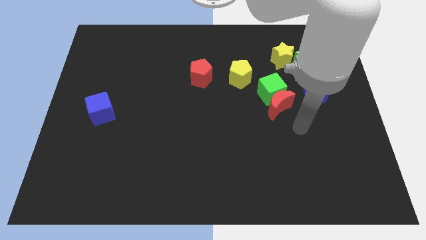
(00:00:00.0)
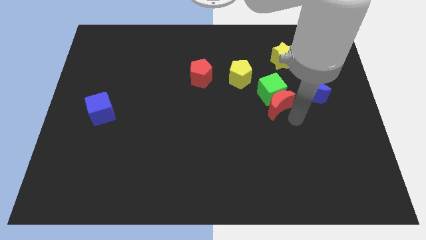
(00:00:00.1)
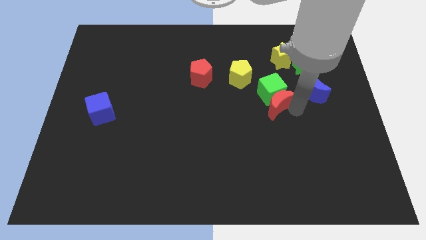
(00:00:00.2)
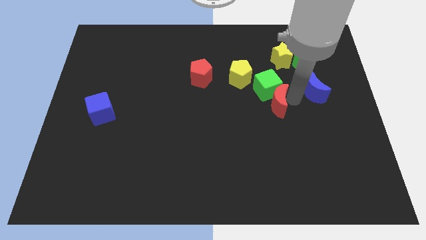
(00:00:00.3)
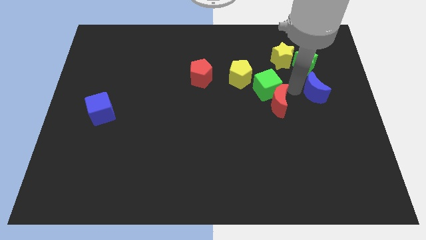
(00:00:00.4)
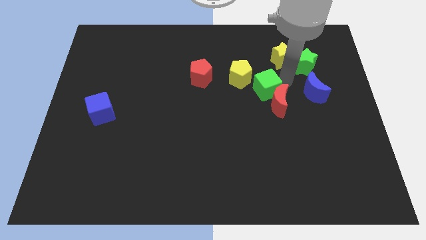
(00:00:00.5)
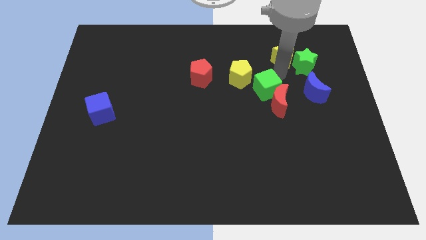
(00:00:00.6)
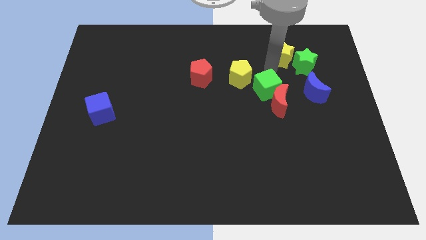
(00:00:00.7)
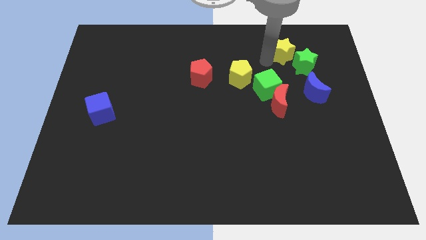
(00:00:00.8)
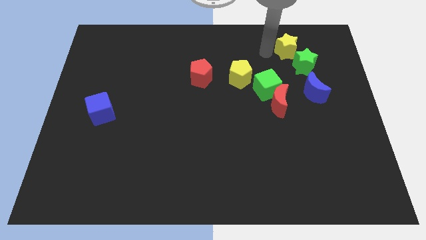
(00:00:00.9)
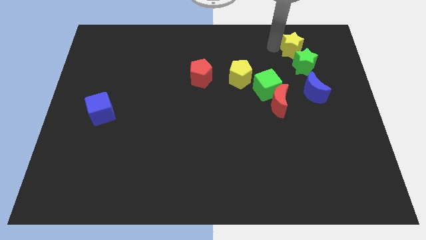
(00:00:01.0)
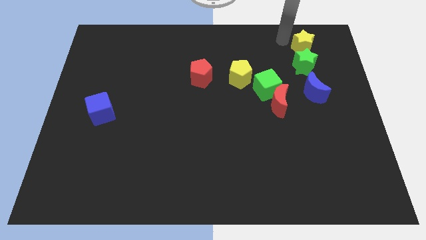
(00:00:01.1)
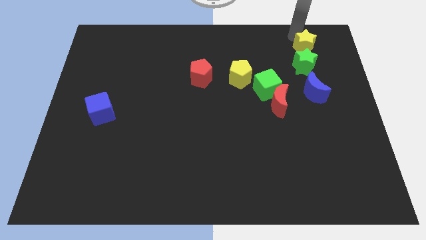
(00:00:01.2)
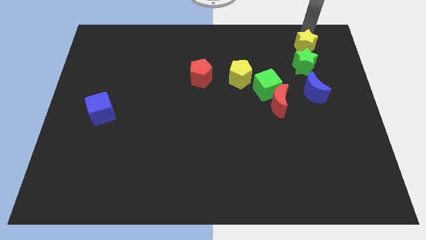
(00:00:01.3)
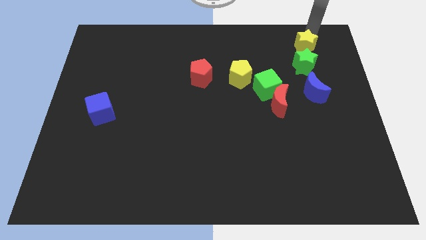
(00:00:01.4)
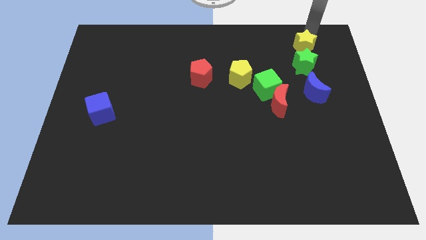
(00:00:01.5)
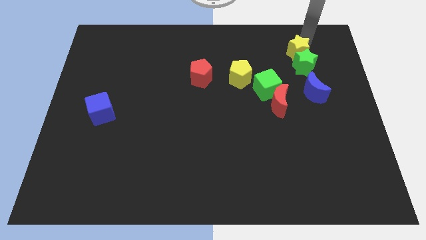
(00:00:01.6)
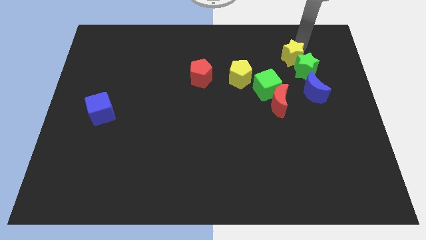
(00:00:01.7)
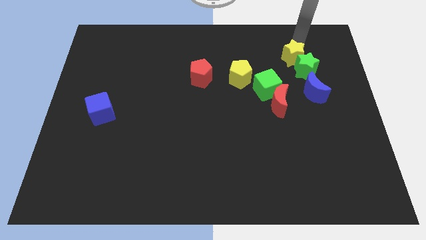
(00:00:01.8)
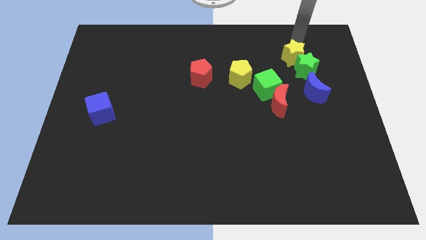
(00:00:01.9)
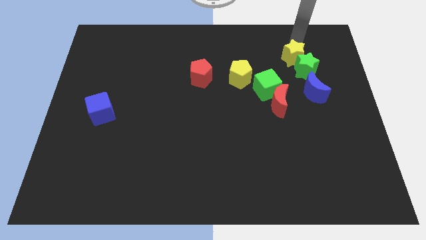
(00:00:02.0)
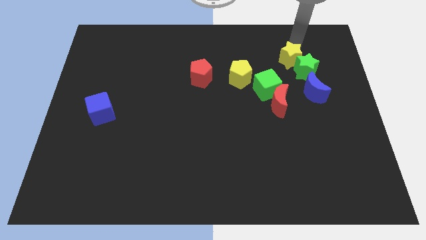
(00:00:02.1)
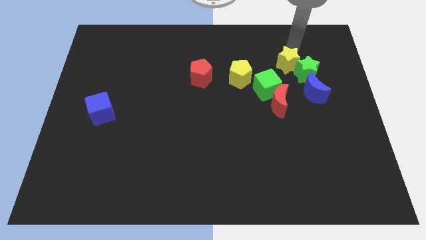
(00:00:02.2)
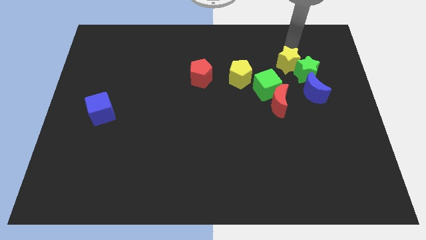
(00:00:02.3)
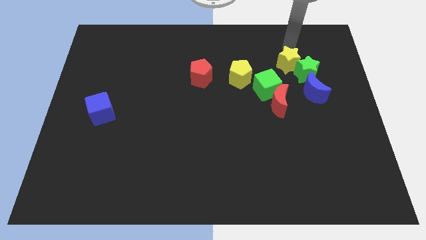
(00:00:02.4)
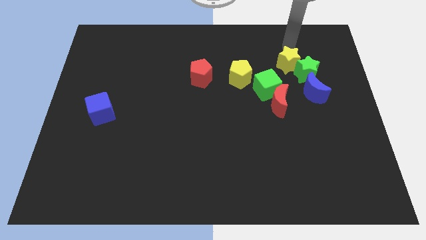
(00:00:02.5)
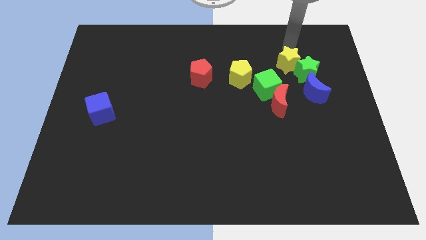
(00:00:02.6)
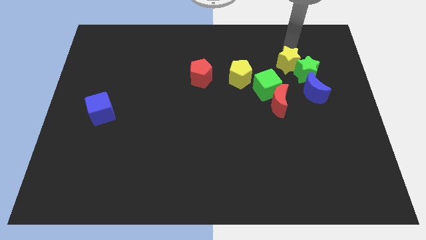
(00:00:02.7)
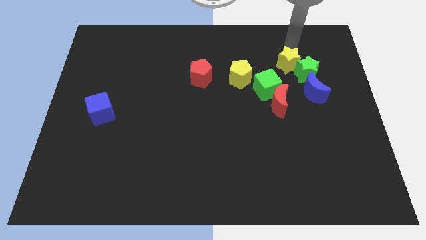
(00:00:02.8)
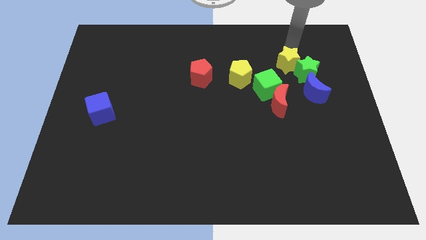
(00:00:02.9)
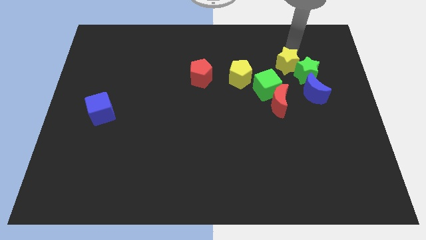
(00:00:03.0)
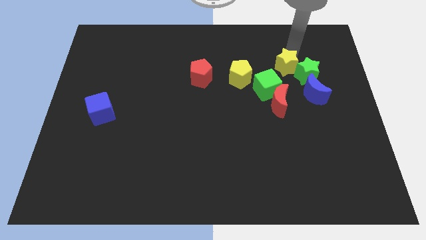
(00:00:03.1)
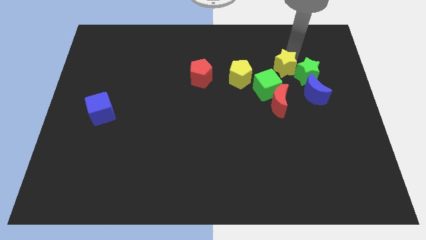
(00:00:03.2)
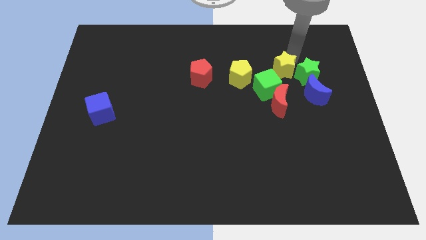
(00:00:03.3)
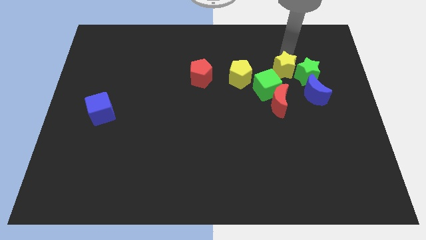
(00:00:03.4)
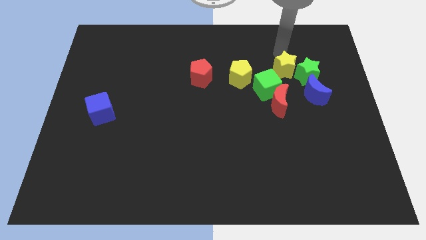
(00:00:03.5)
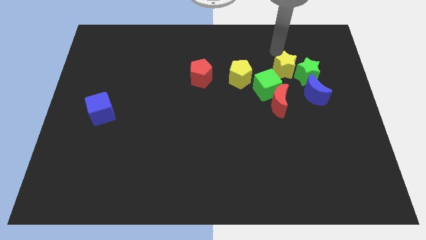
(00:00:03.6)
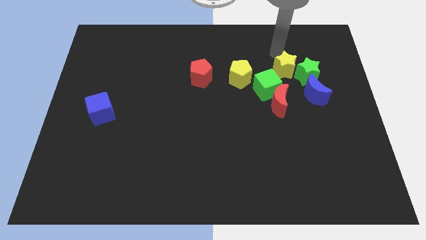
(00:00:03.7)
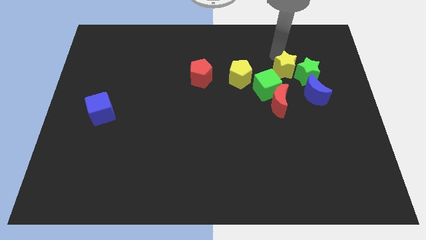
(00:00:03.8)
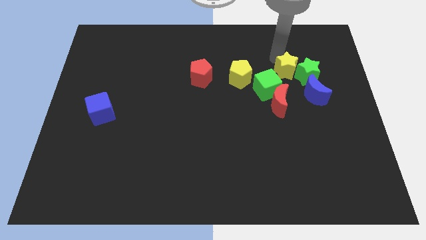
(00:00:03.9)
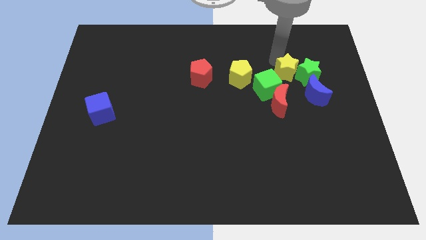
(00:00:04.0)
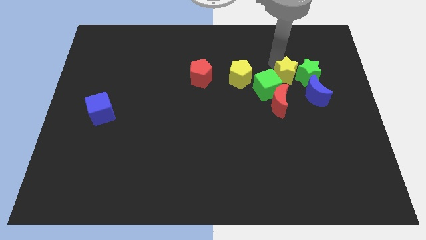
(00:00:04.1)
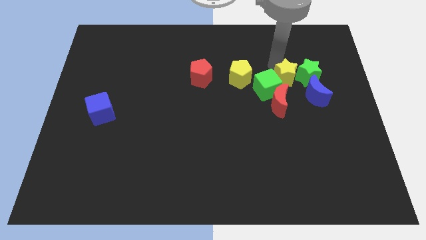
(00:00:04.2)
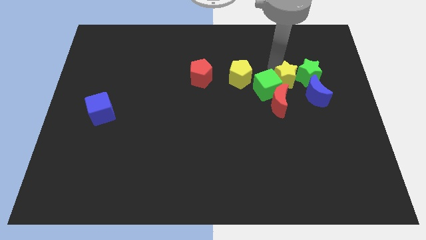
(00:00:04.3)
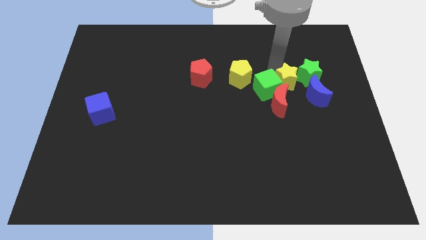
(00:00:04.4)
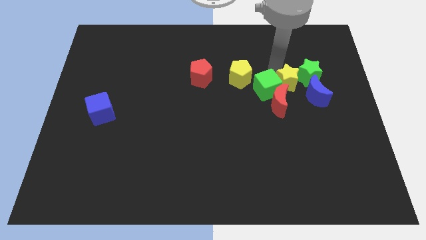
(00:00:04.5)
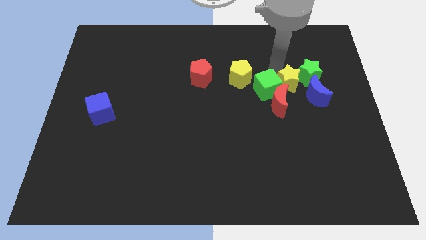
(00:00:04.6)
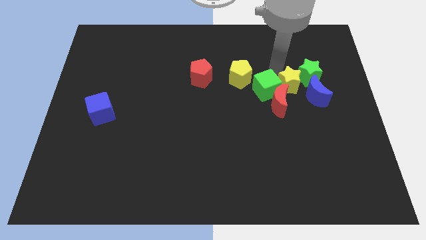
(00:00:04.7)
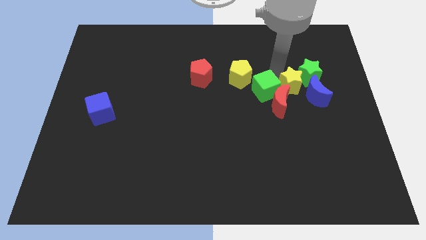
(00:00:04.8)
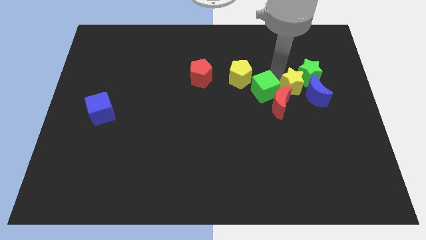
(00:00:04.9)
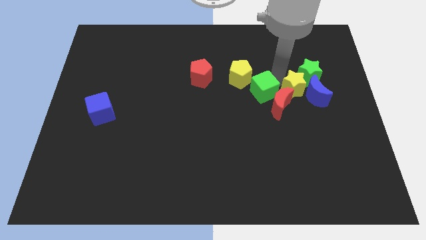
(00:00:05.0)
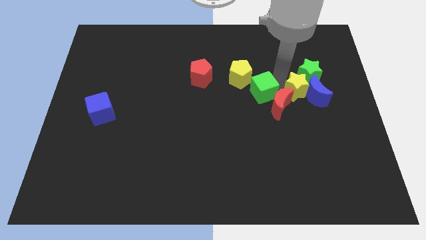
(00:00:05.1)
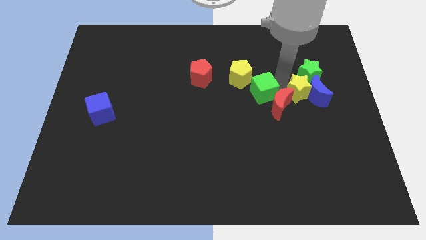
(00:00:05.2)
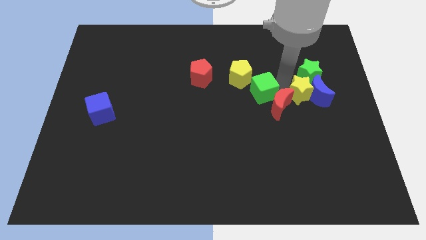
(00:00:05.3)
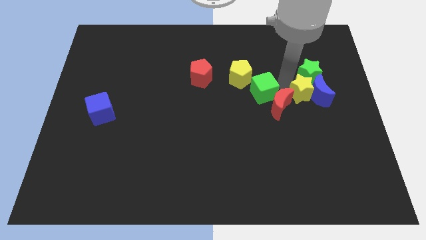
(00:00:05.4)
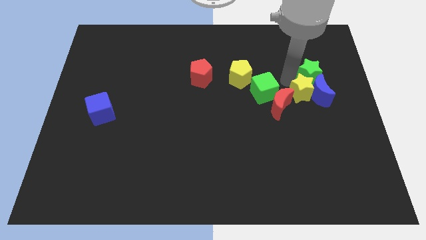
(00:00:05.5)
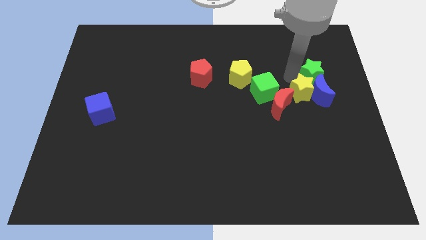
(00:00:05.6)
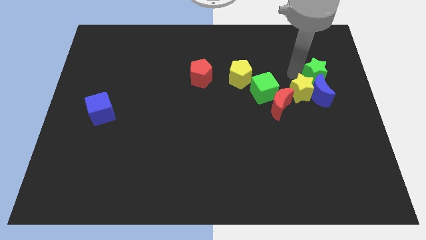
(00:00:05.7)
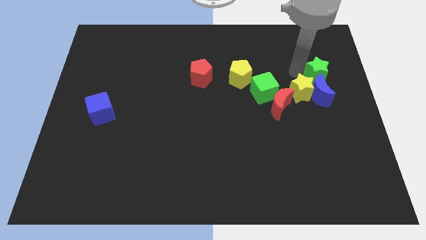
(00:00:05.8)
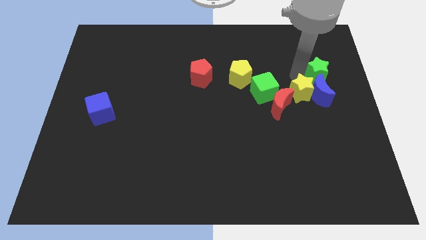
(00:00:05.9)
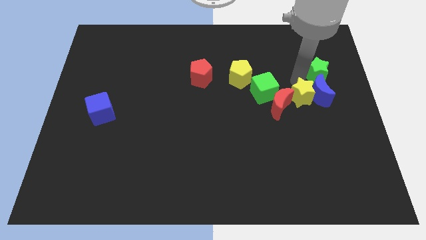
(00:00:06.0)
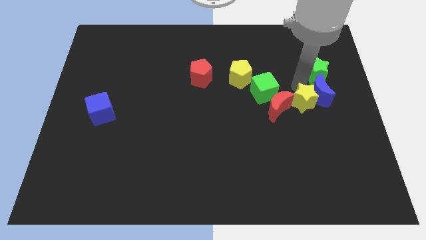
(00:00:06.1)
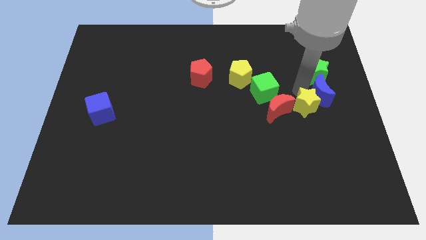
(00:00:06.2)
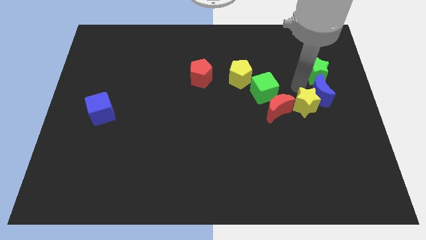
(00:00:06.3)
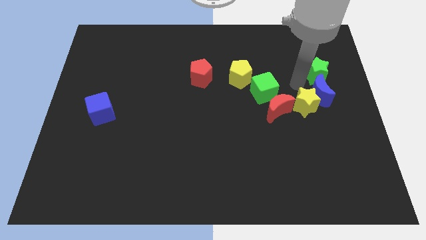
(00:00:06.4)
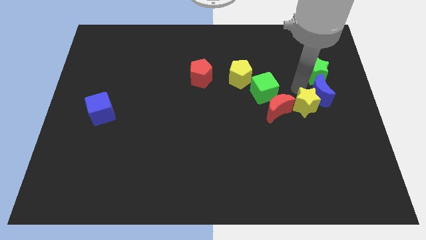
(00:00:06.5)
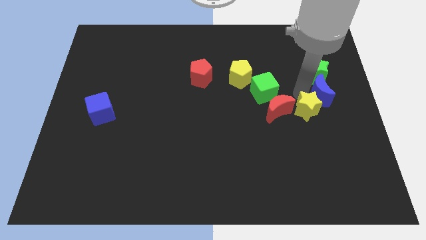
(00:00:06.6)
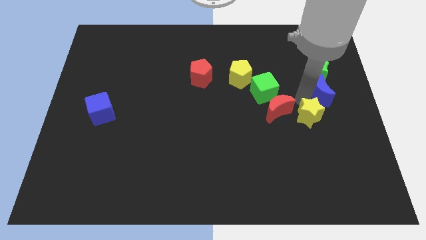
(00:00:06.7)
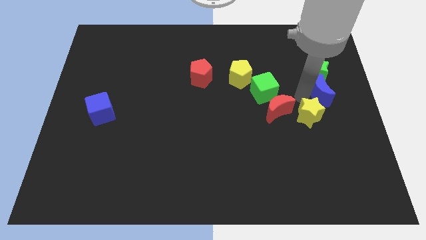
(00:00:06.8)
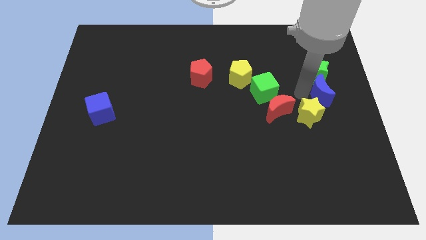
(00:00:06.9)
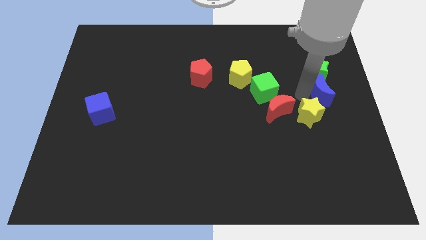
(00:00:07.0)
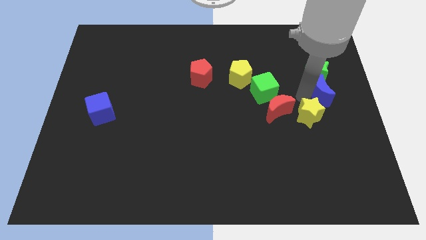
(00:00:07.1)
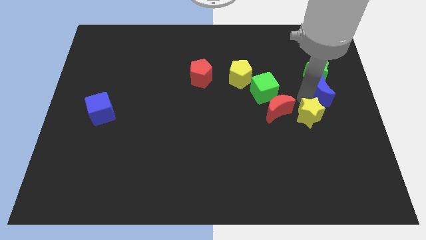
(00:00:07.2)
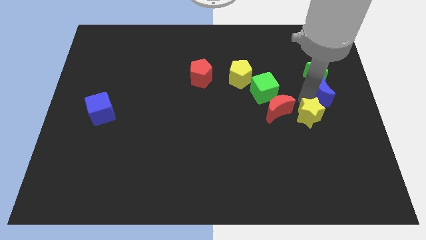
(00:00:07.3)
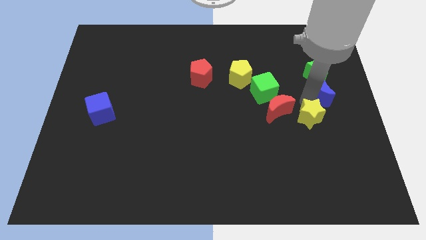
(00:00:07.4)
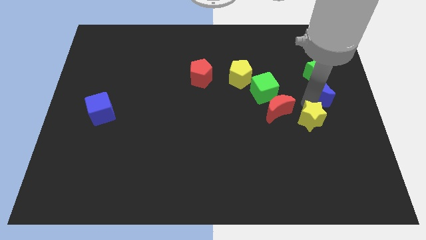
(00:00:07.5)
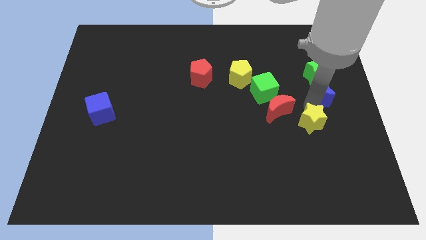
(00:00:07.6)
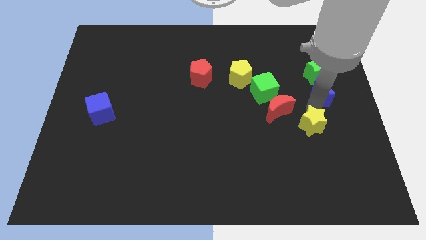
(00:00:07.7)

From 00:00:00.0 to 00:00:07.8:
push the yellow star downwards

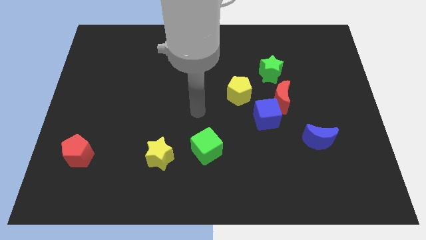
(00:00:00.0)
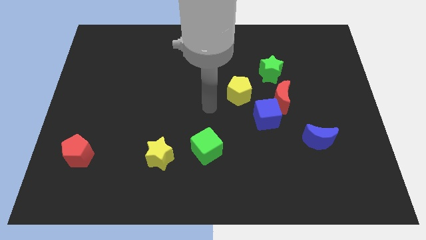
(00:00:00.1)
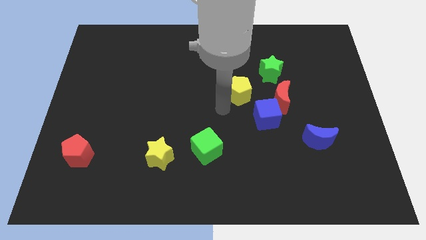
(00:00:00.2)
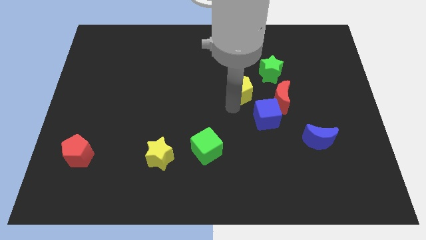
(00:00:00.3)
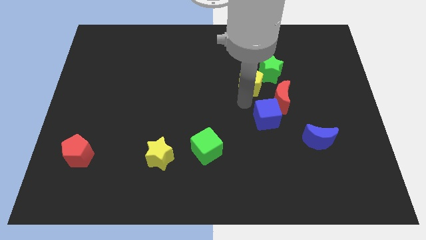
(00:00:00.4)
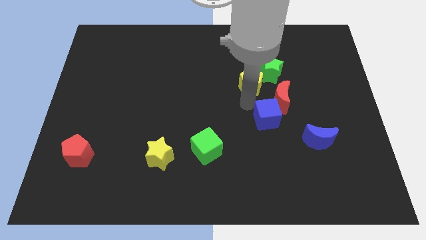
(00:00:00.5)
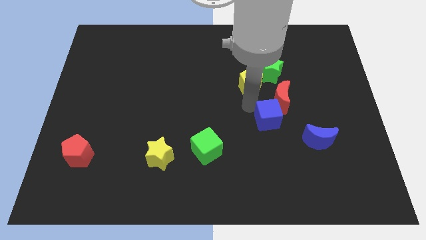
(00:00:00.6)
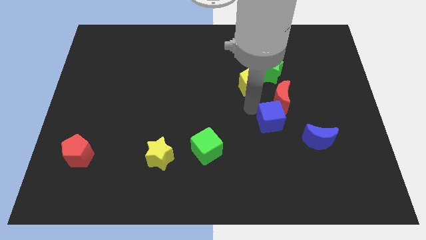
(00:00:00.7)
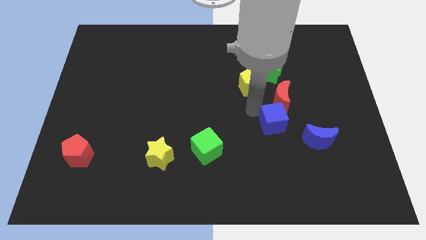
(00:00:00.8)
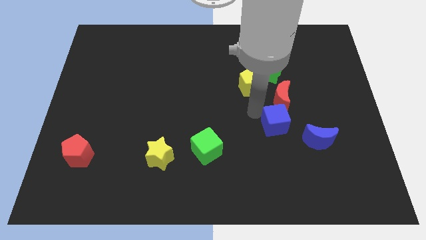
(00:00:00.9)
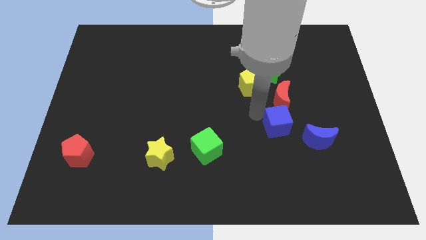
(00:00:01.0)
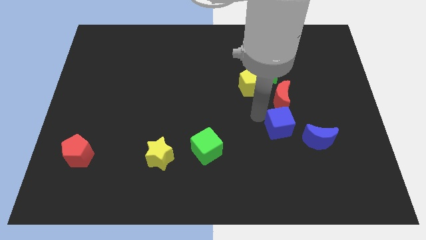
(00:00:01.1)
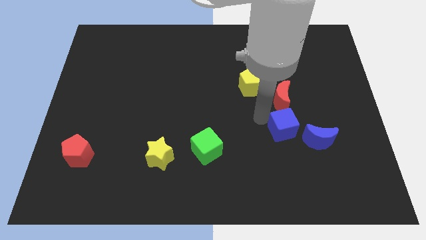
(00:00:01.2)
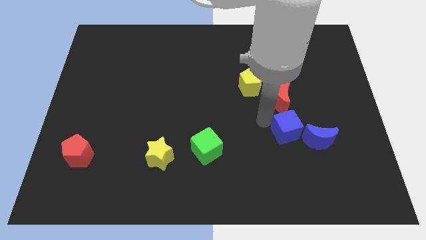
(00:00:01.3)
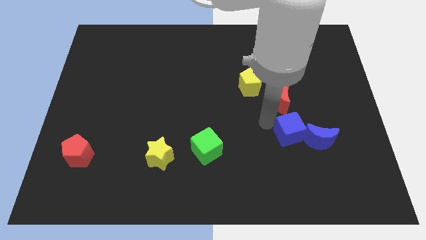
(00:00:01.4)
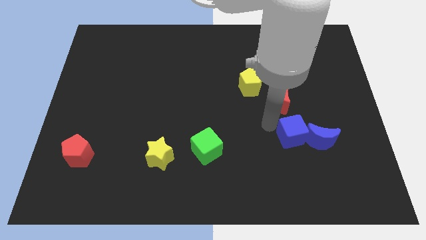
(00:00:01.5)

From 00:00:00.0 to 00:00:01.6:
slightly move the blue cube down and then right
